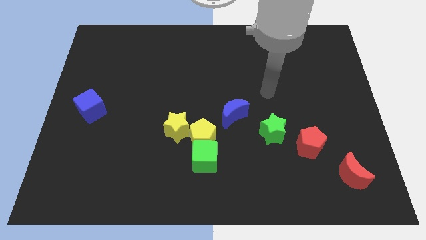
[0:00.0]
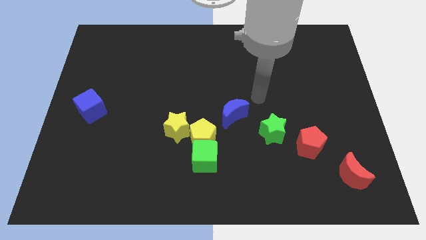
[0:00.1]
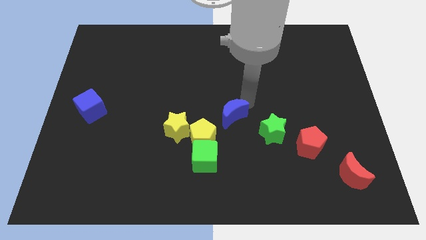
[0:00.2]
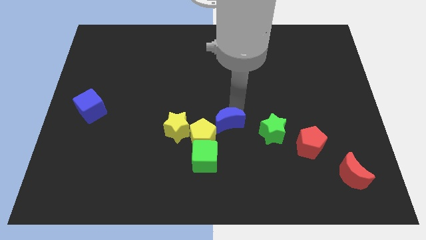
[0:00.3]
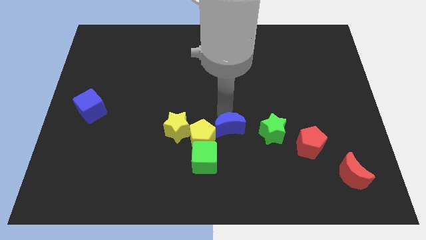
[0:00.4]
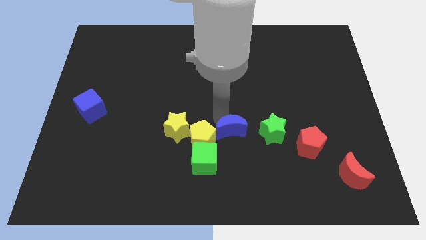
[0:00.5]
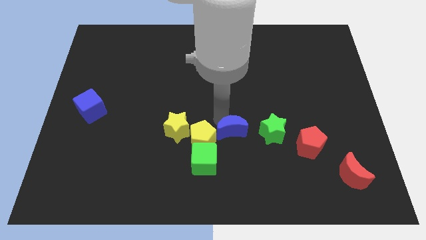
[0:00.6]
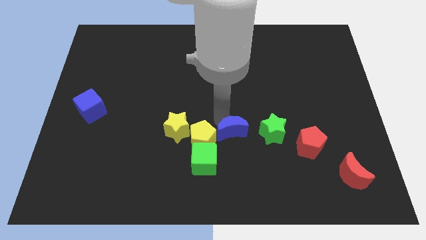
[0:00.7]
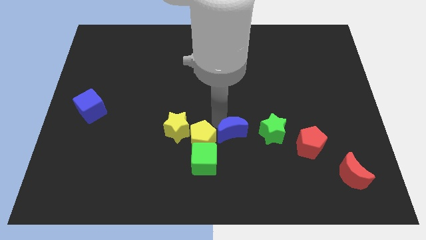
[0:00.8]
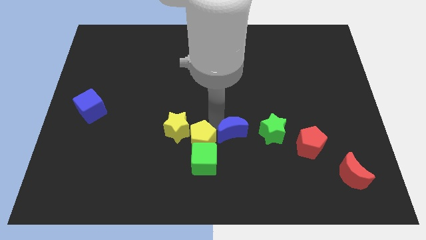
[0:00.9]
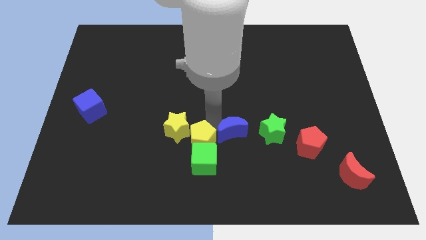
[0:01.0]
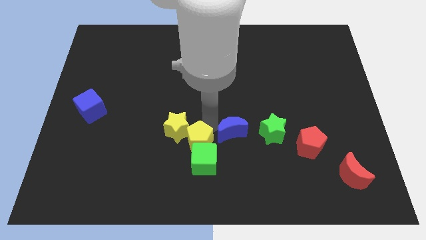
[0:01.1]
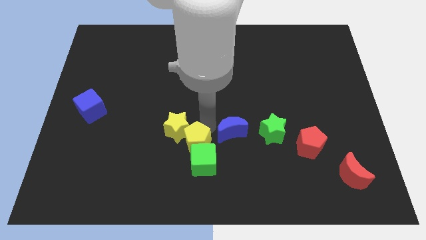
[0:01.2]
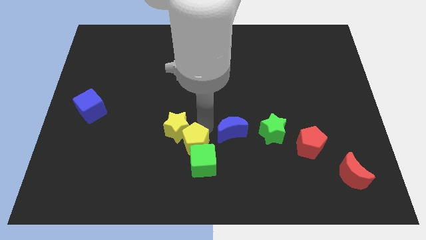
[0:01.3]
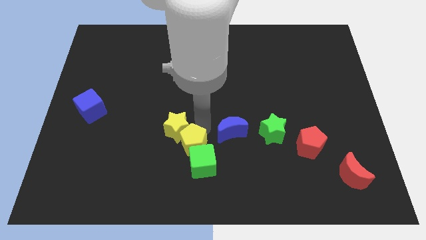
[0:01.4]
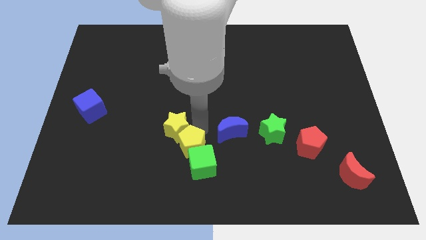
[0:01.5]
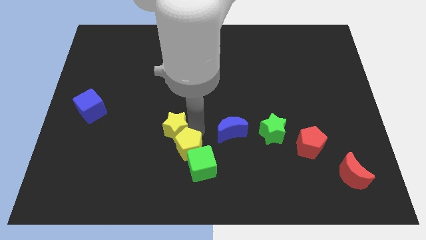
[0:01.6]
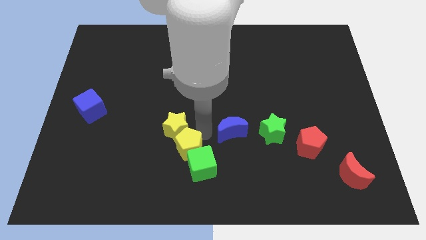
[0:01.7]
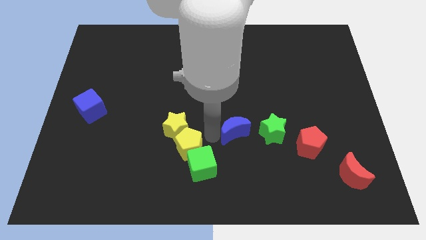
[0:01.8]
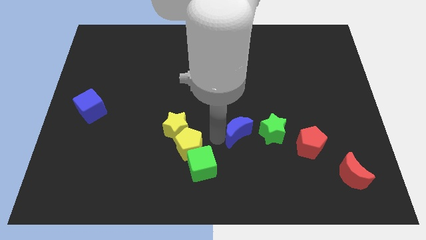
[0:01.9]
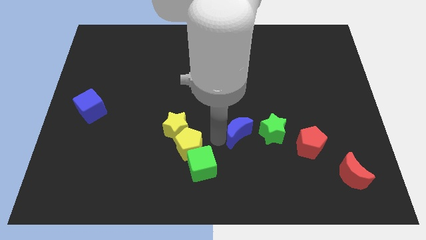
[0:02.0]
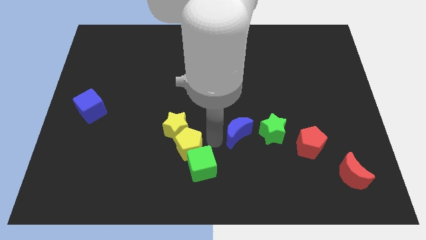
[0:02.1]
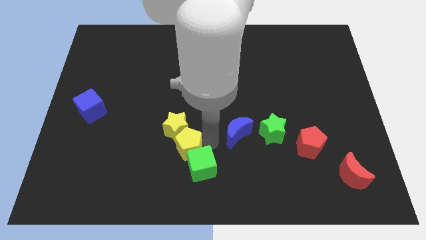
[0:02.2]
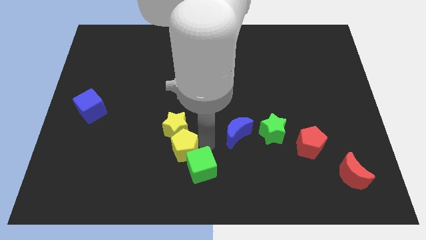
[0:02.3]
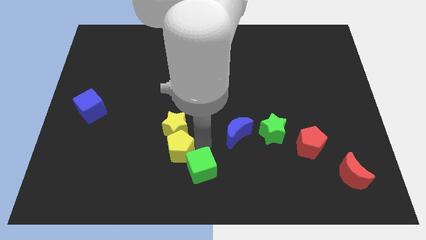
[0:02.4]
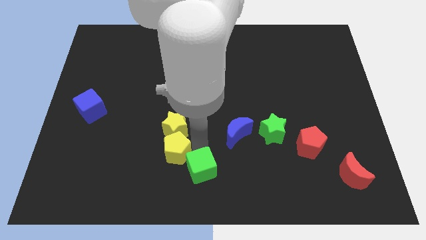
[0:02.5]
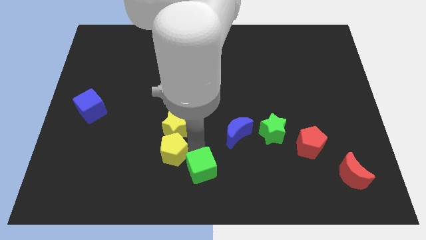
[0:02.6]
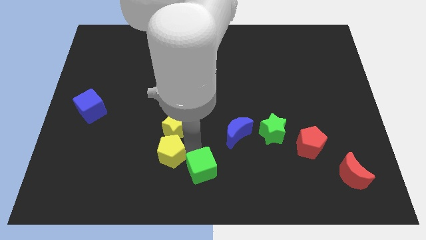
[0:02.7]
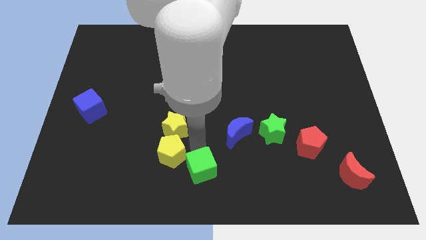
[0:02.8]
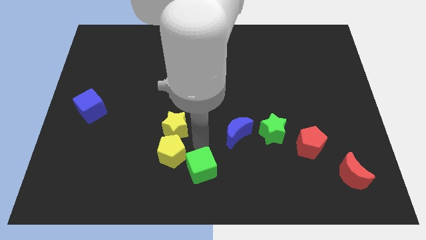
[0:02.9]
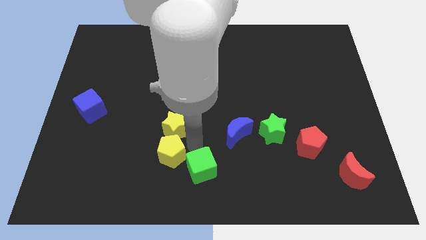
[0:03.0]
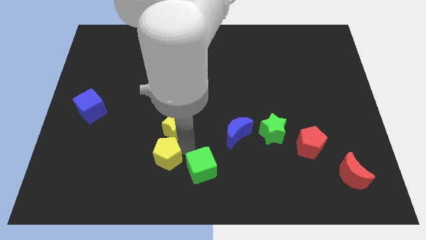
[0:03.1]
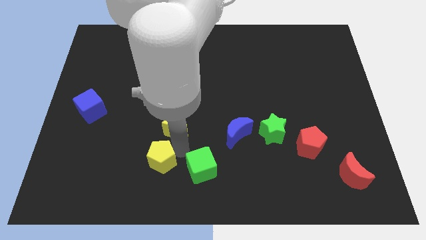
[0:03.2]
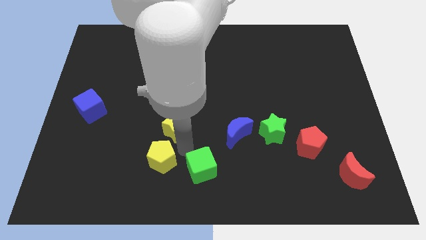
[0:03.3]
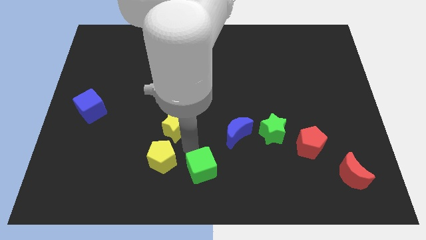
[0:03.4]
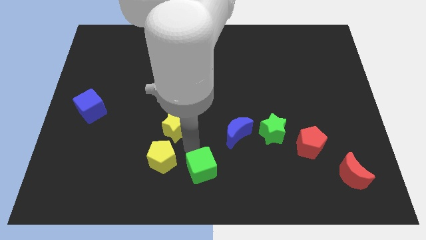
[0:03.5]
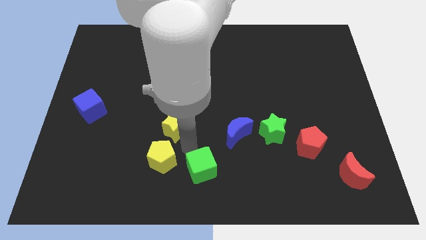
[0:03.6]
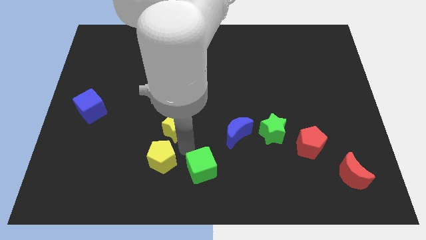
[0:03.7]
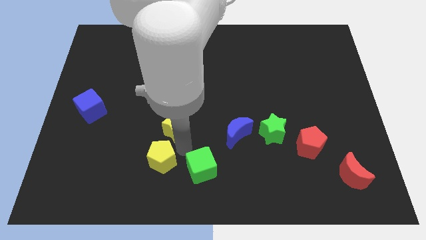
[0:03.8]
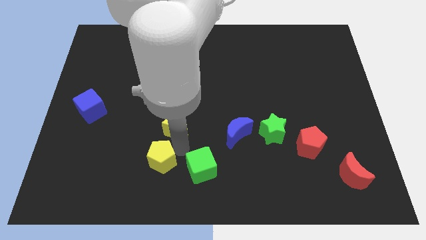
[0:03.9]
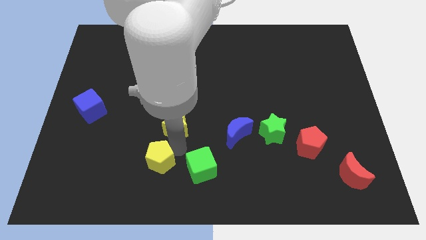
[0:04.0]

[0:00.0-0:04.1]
separate the yellow pentagon from the clump

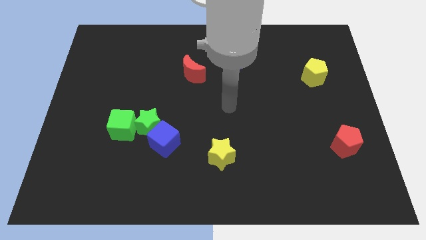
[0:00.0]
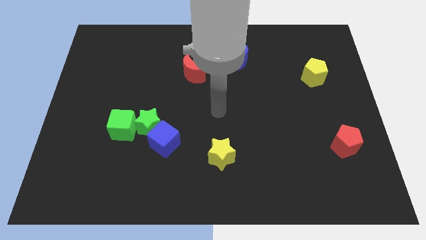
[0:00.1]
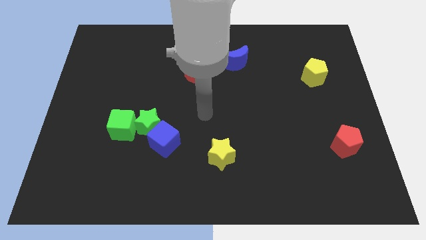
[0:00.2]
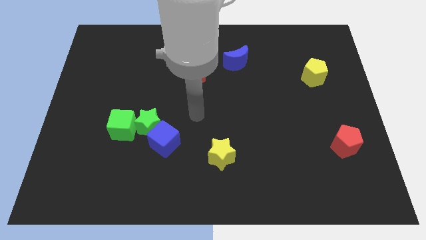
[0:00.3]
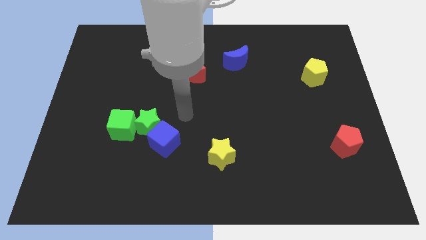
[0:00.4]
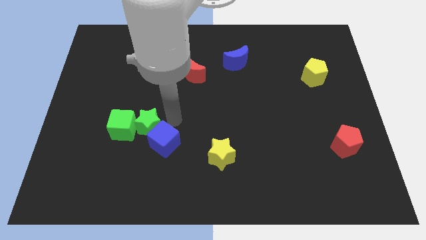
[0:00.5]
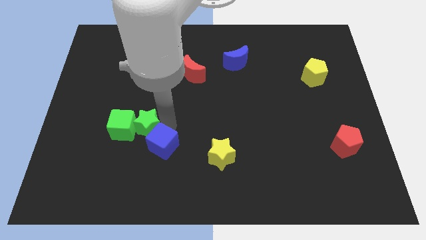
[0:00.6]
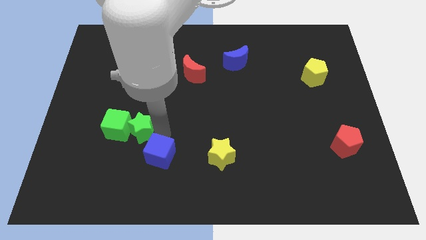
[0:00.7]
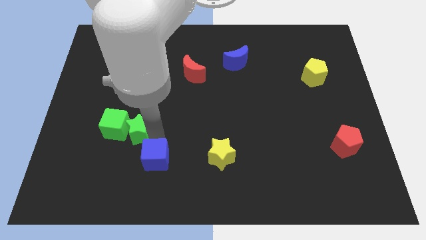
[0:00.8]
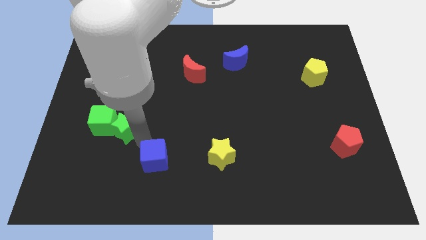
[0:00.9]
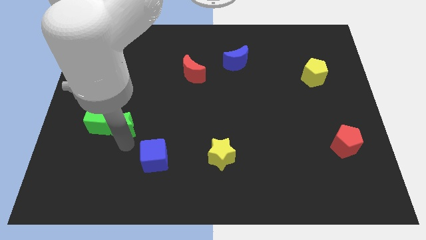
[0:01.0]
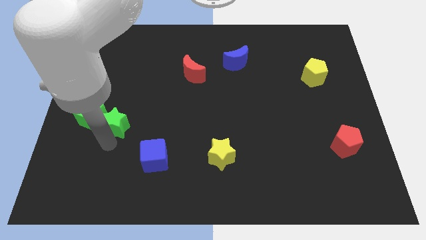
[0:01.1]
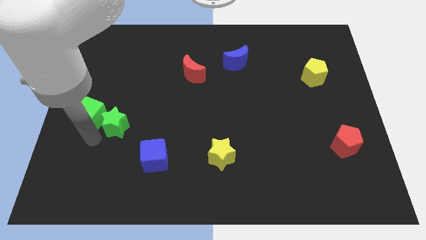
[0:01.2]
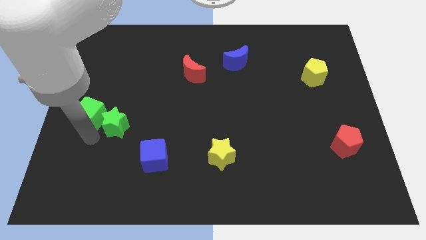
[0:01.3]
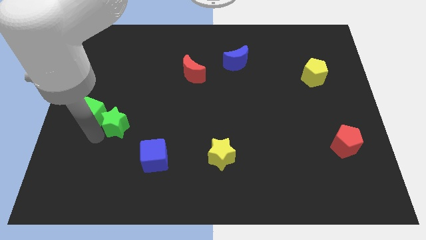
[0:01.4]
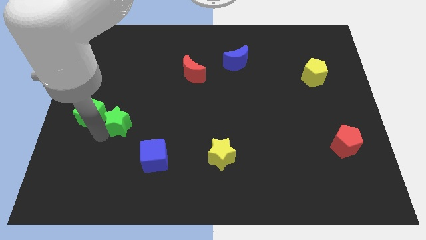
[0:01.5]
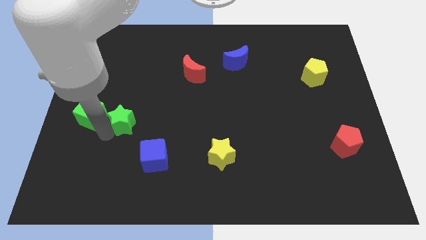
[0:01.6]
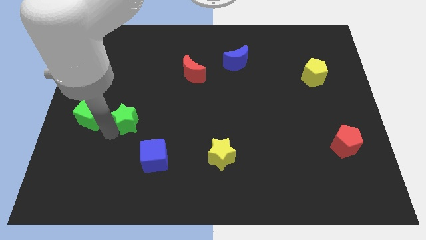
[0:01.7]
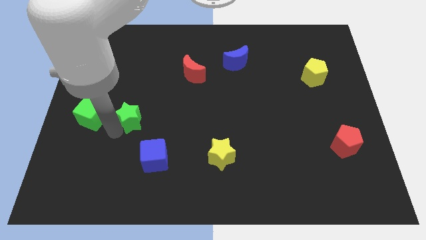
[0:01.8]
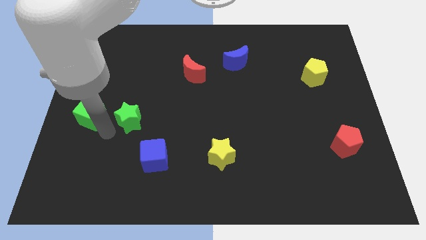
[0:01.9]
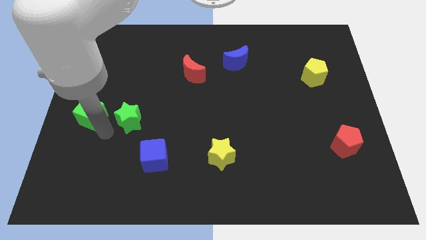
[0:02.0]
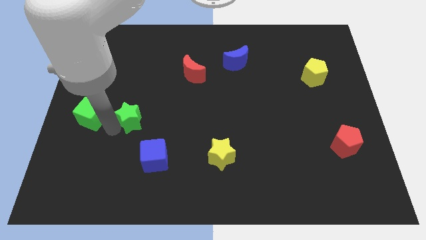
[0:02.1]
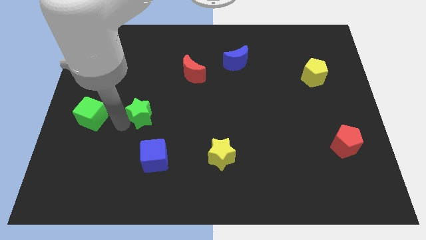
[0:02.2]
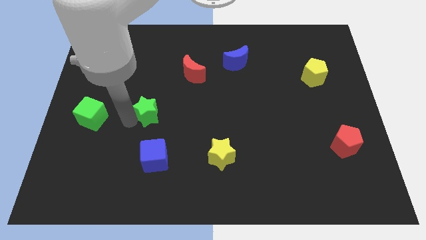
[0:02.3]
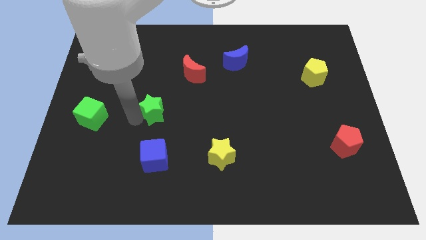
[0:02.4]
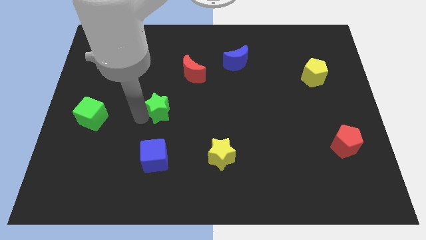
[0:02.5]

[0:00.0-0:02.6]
move the green star away from the green cube and blue cube

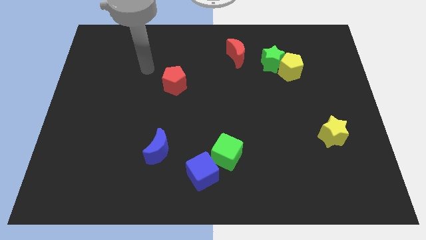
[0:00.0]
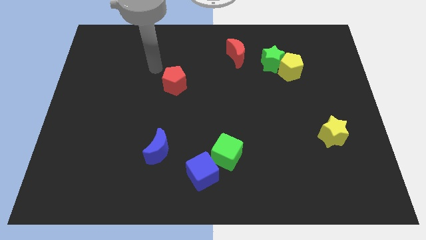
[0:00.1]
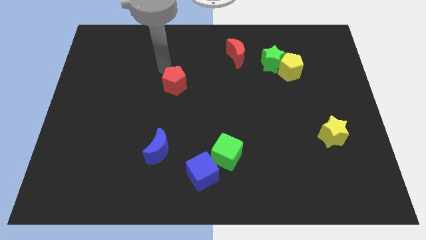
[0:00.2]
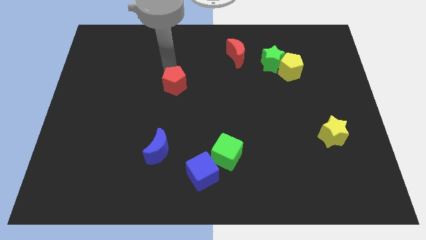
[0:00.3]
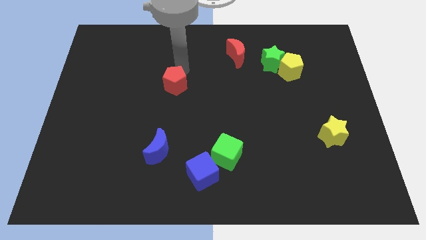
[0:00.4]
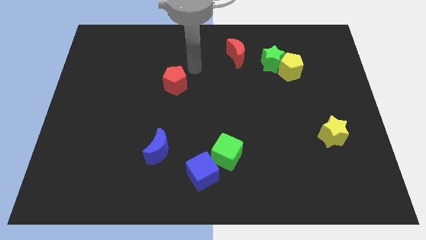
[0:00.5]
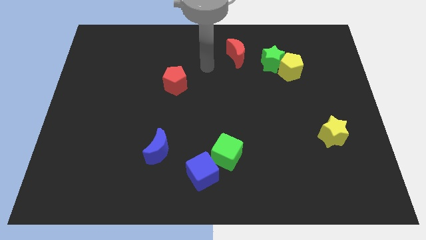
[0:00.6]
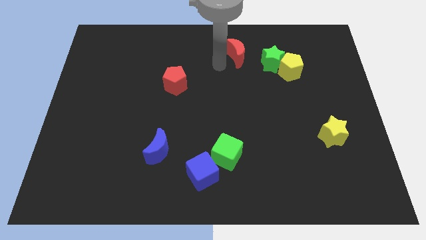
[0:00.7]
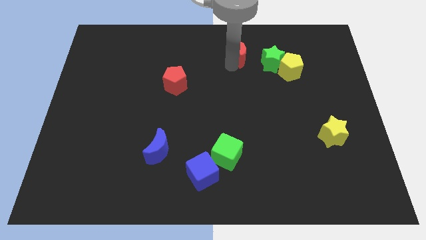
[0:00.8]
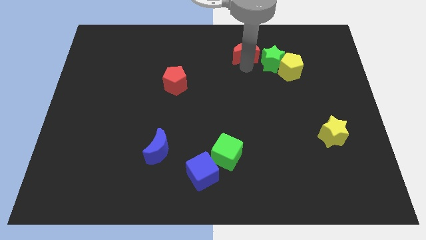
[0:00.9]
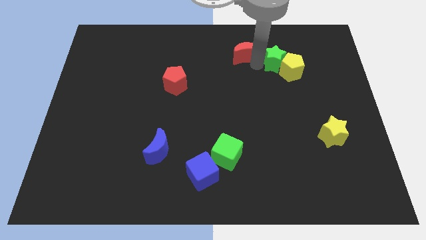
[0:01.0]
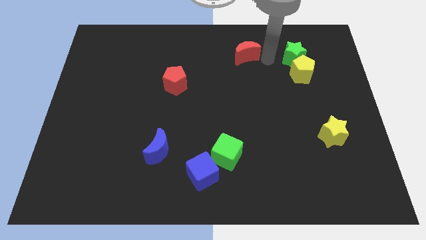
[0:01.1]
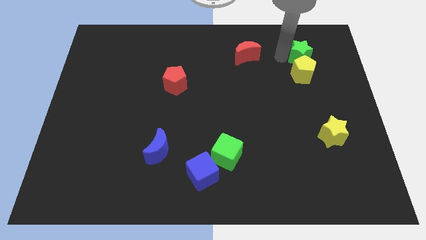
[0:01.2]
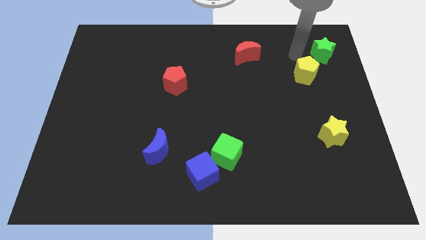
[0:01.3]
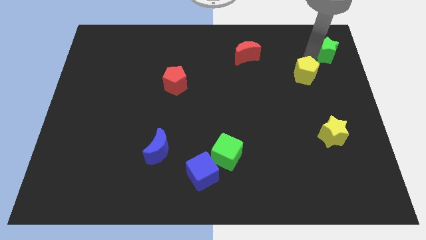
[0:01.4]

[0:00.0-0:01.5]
move the yellow pentagon away from the green star

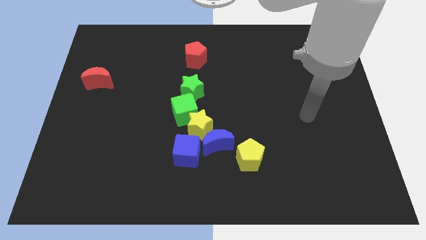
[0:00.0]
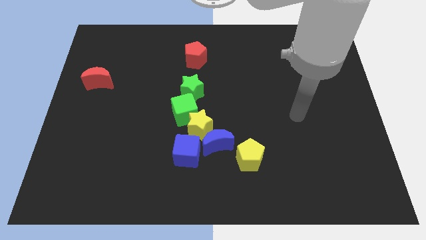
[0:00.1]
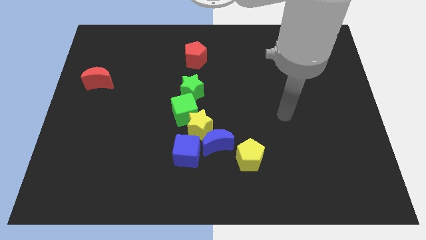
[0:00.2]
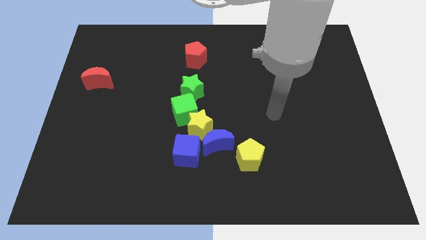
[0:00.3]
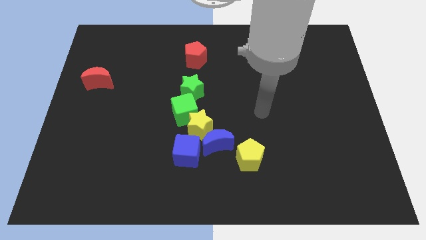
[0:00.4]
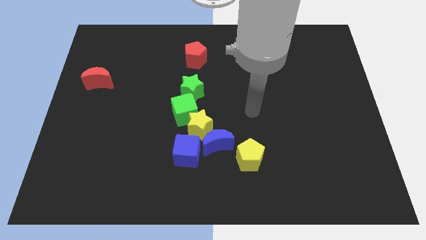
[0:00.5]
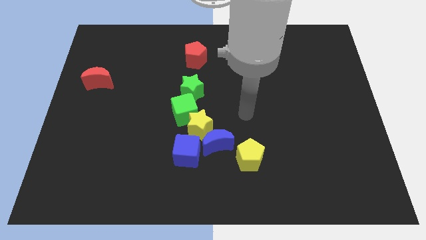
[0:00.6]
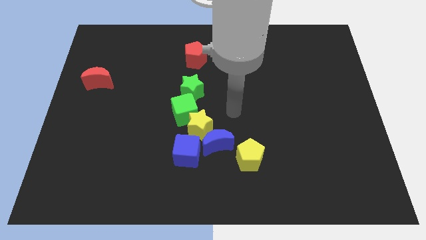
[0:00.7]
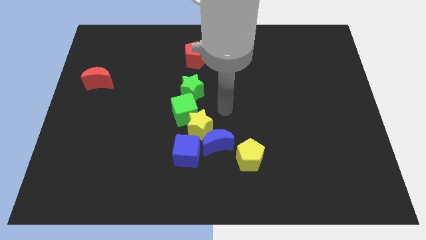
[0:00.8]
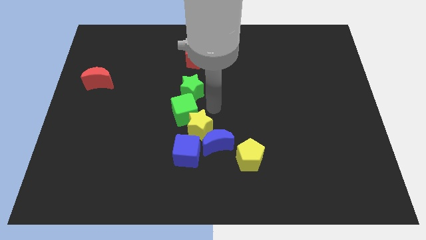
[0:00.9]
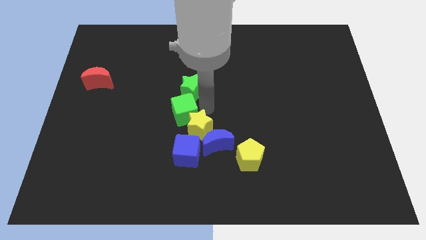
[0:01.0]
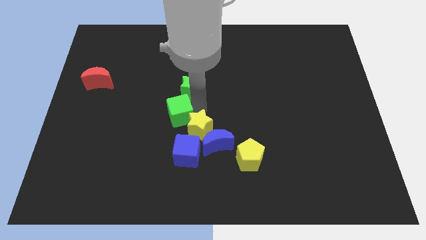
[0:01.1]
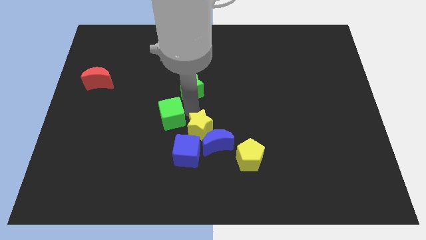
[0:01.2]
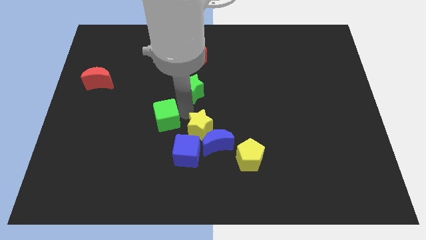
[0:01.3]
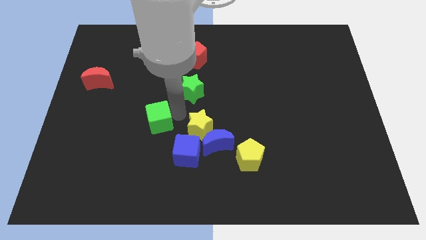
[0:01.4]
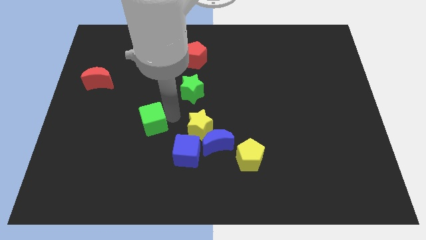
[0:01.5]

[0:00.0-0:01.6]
pull the green cube apart from the yellow star and green star
